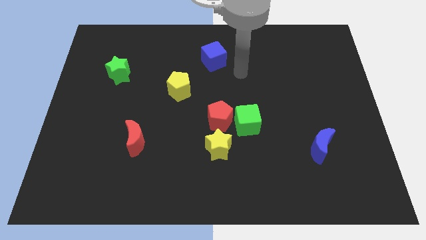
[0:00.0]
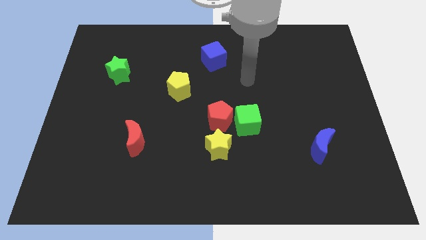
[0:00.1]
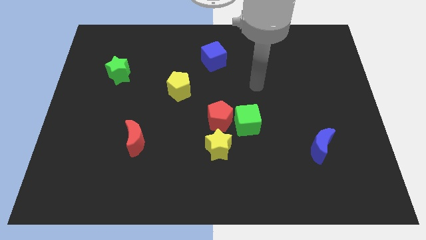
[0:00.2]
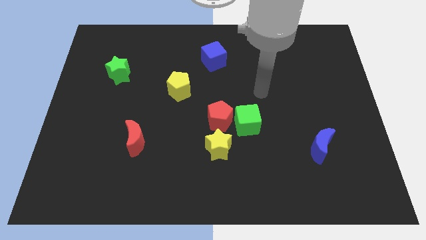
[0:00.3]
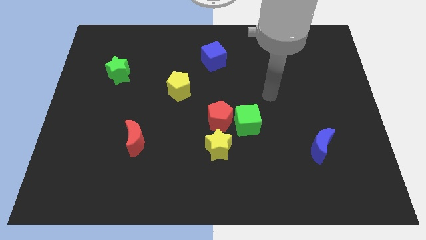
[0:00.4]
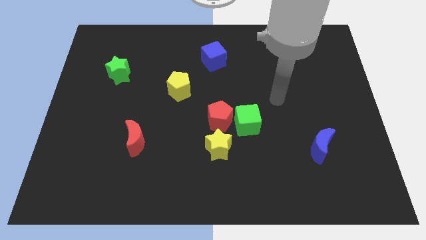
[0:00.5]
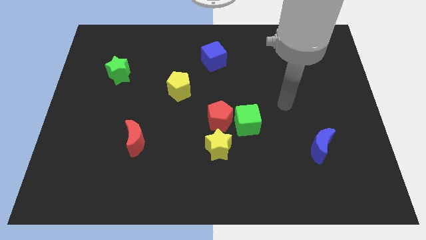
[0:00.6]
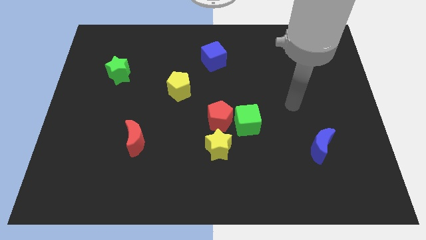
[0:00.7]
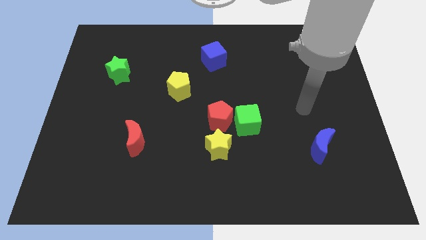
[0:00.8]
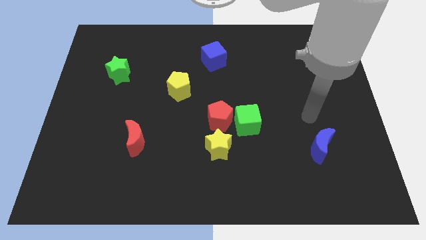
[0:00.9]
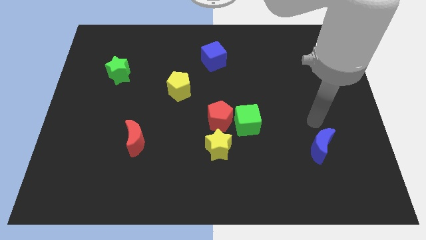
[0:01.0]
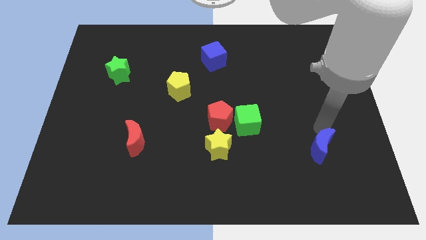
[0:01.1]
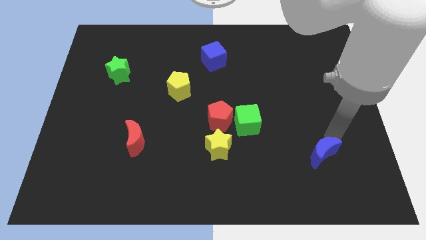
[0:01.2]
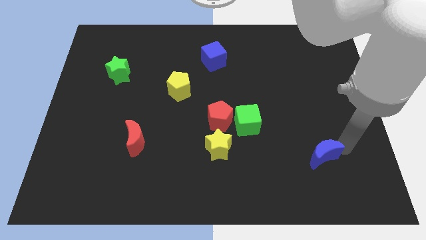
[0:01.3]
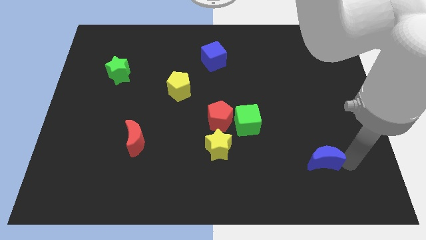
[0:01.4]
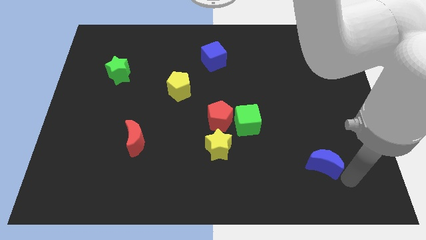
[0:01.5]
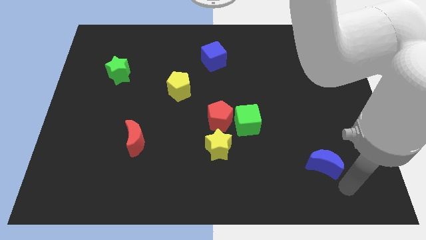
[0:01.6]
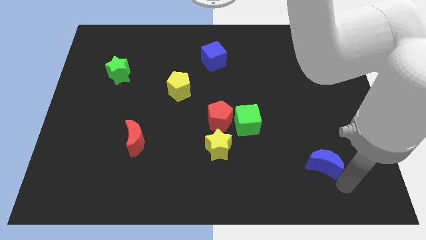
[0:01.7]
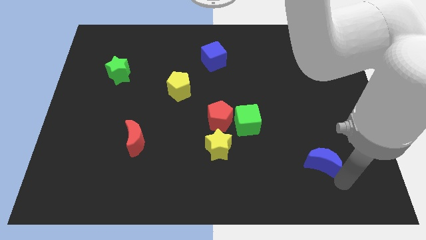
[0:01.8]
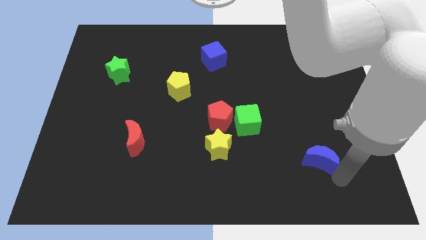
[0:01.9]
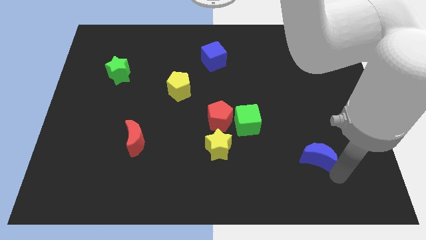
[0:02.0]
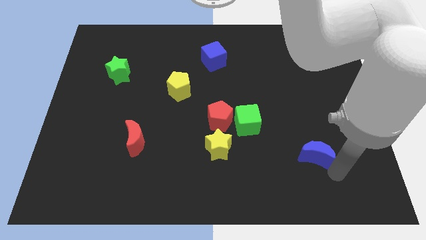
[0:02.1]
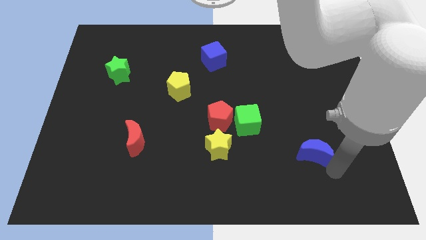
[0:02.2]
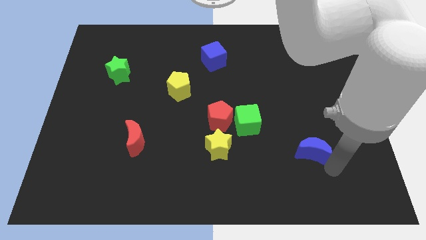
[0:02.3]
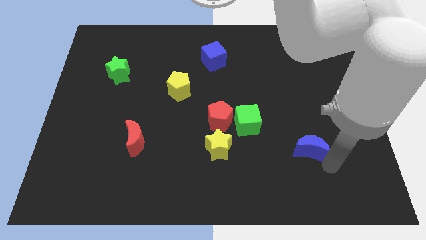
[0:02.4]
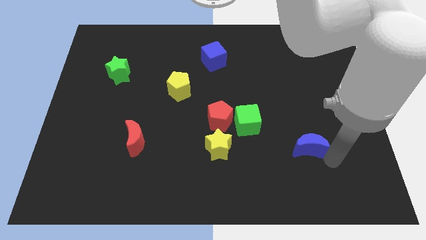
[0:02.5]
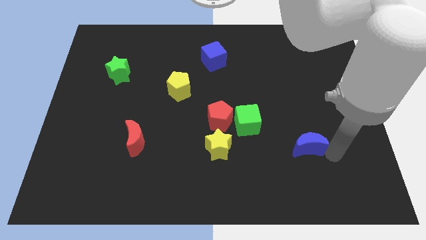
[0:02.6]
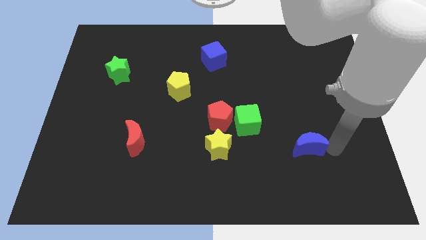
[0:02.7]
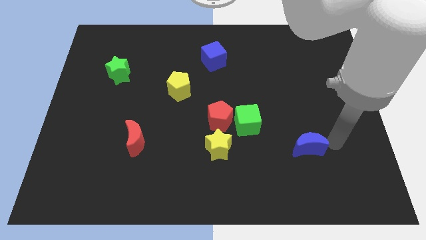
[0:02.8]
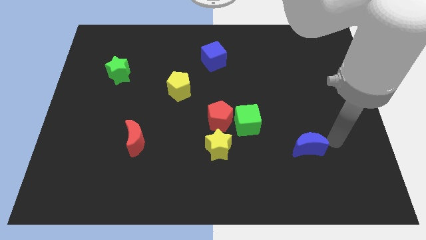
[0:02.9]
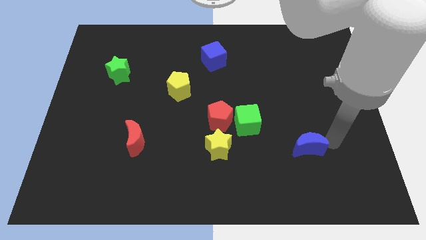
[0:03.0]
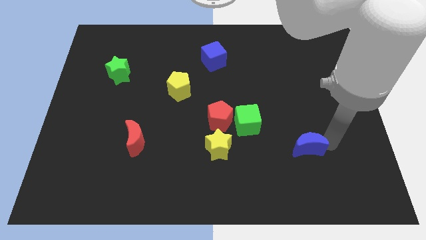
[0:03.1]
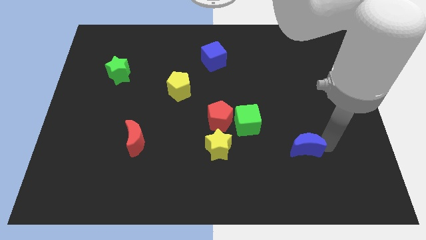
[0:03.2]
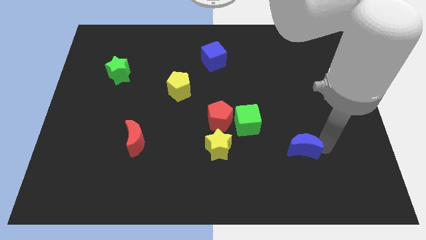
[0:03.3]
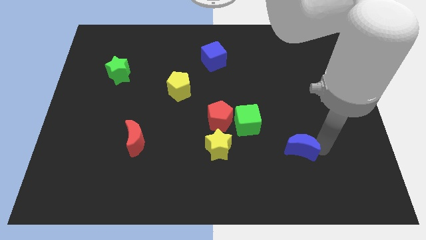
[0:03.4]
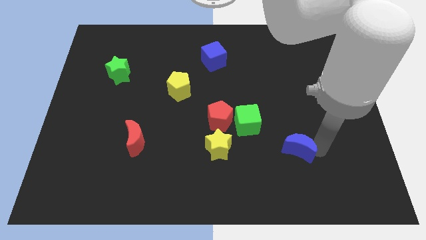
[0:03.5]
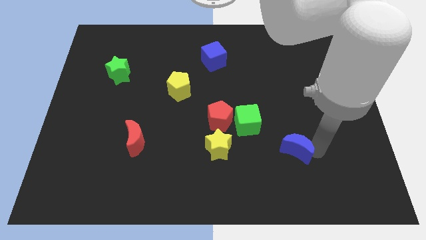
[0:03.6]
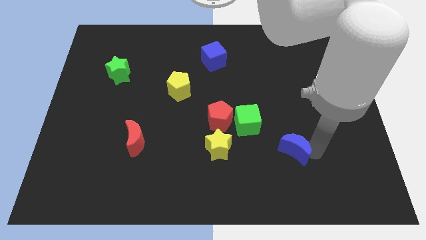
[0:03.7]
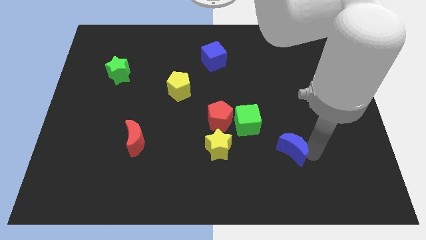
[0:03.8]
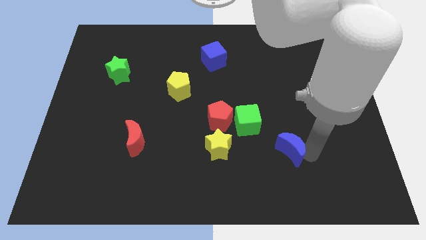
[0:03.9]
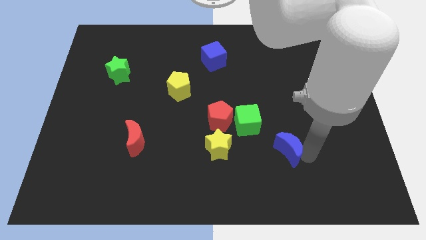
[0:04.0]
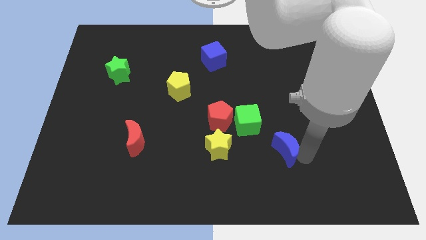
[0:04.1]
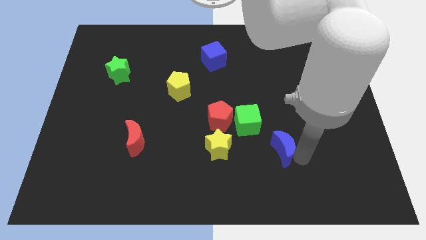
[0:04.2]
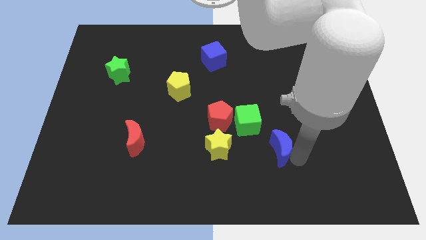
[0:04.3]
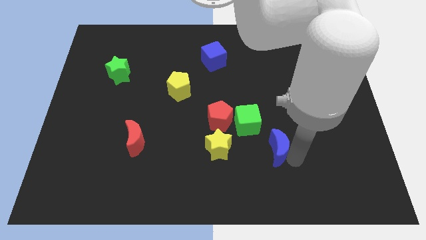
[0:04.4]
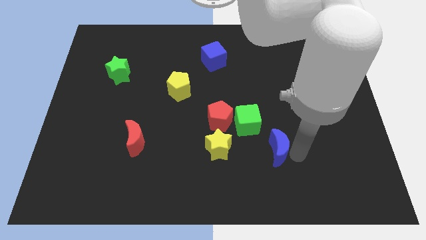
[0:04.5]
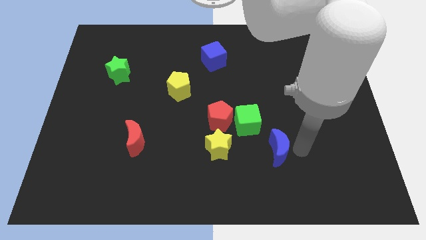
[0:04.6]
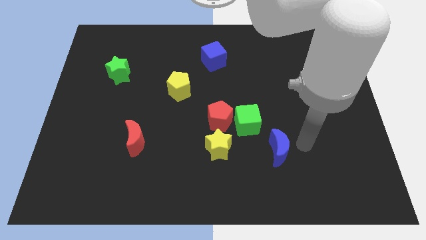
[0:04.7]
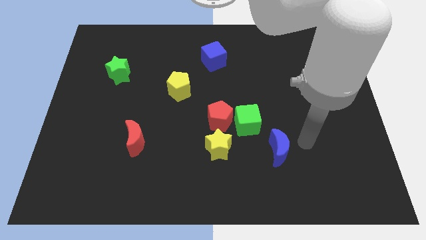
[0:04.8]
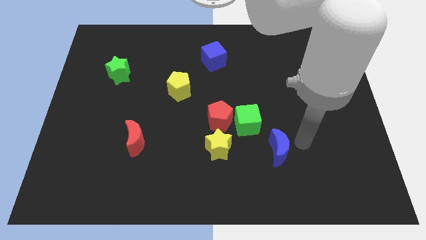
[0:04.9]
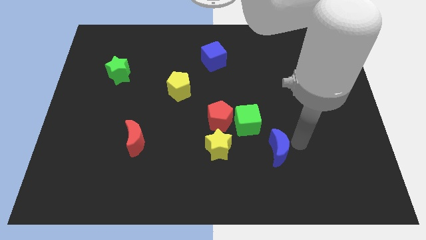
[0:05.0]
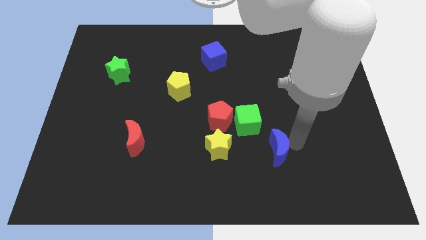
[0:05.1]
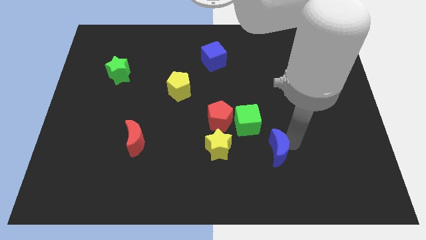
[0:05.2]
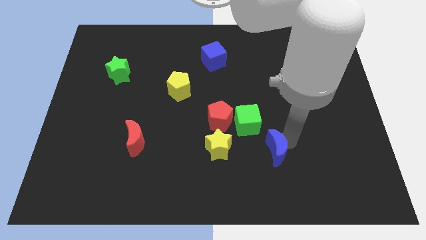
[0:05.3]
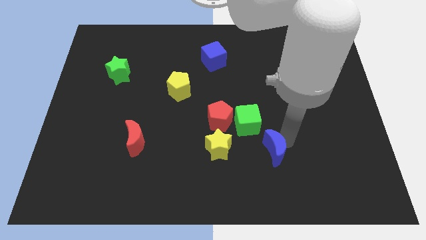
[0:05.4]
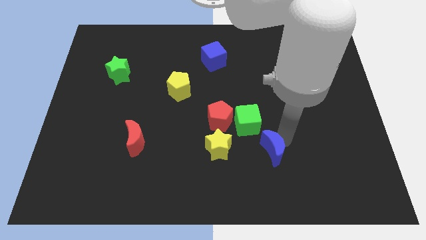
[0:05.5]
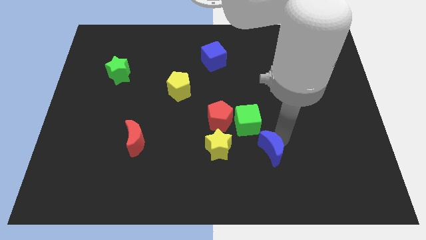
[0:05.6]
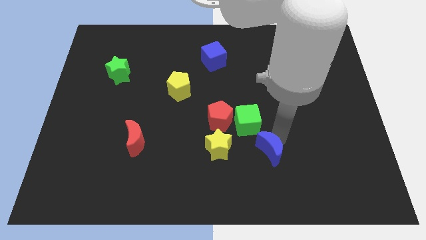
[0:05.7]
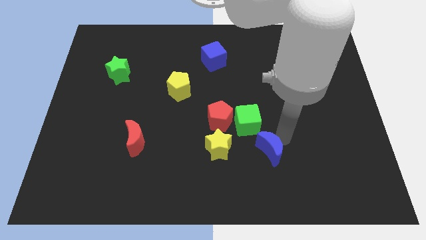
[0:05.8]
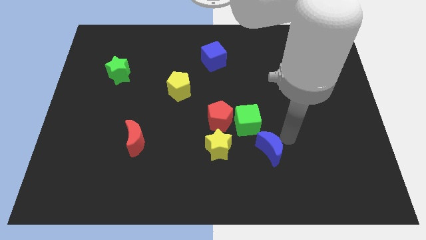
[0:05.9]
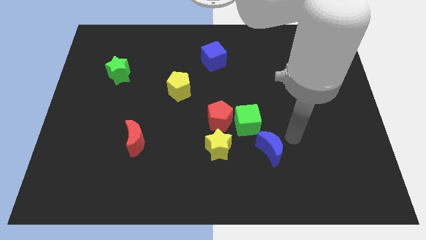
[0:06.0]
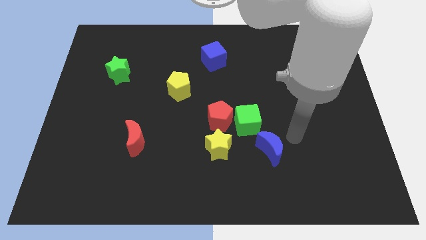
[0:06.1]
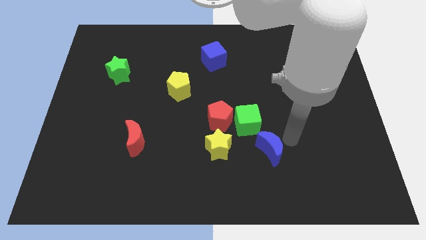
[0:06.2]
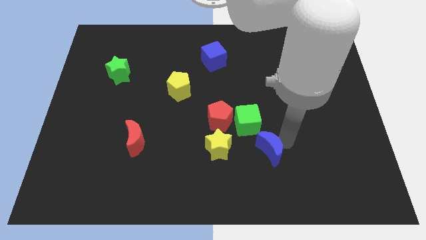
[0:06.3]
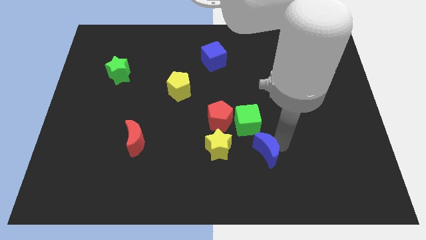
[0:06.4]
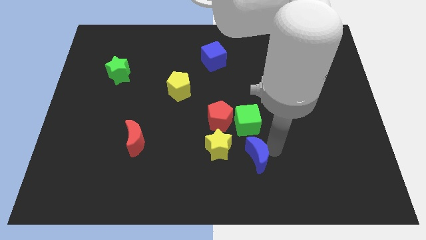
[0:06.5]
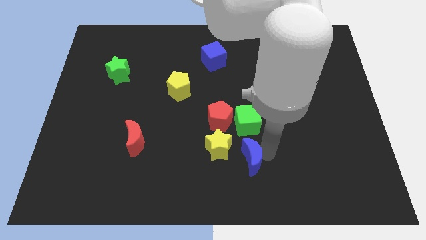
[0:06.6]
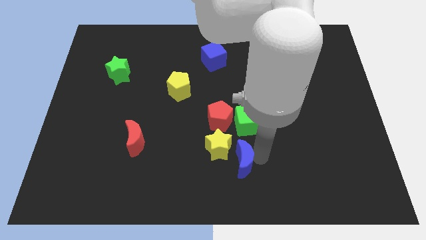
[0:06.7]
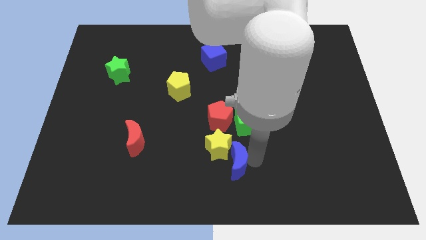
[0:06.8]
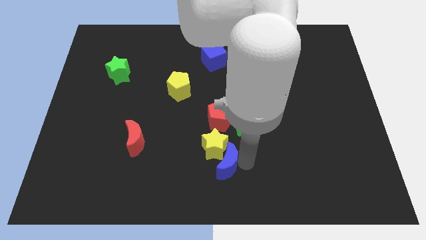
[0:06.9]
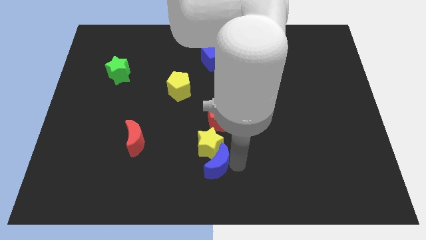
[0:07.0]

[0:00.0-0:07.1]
move the blue moon left

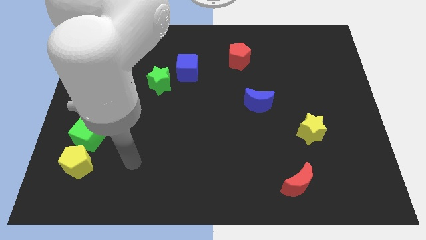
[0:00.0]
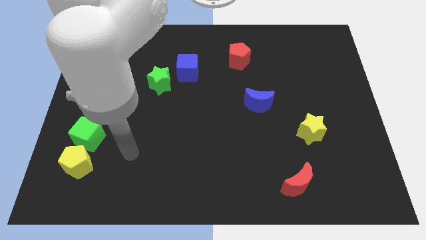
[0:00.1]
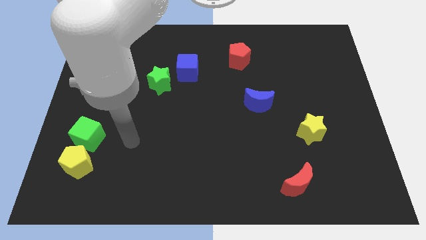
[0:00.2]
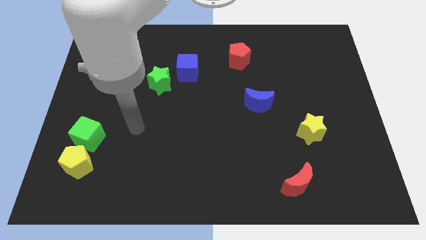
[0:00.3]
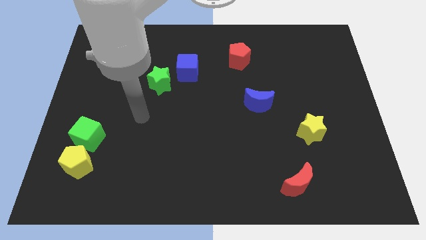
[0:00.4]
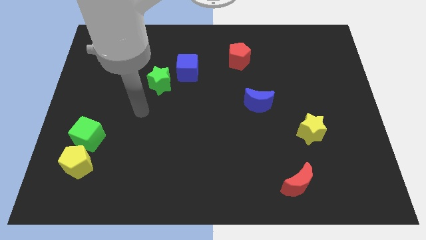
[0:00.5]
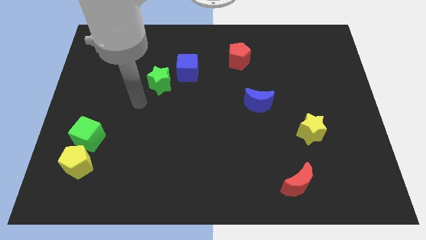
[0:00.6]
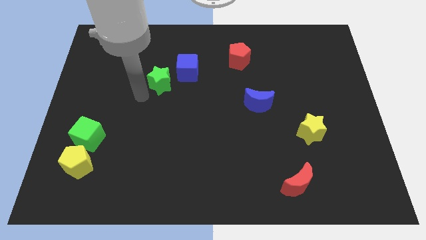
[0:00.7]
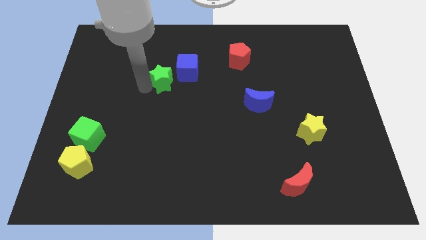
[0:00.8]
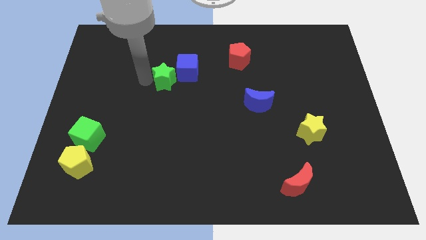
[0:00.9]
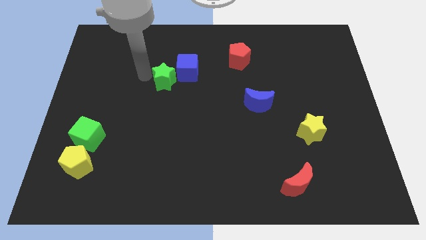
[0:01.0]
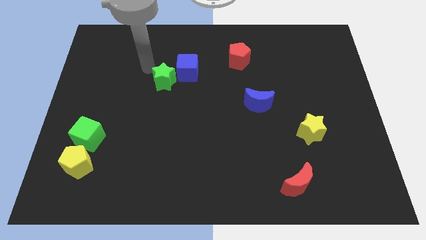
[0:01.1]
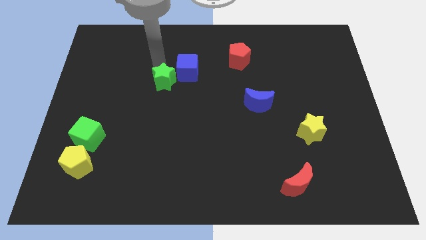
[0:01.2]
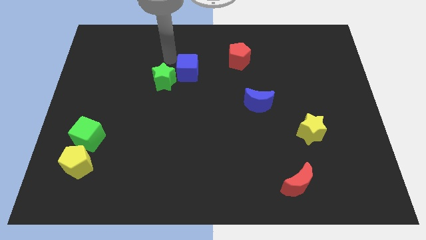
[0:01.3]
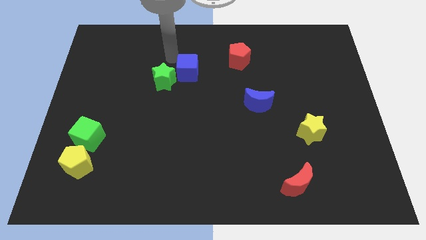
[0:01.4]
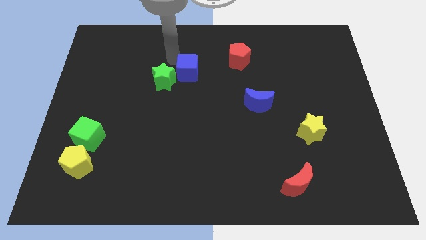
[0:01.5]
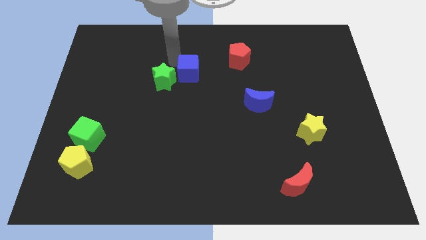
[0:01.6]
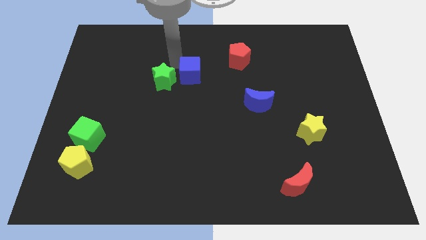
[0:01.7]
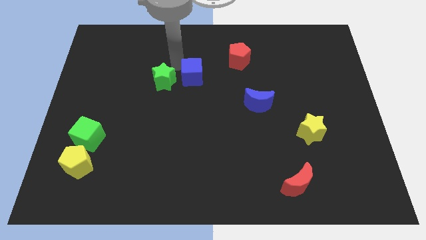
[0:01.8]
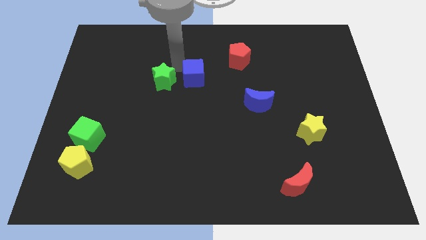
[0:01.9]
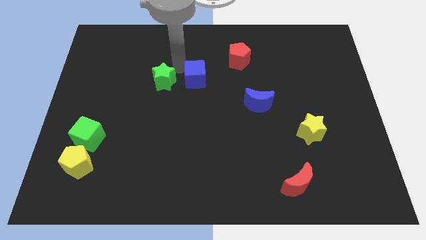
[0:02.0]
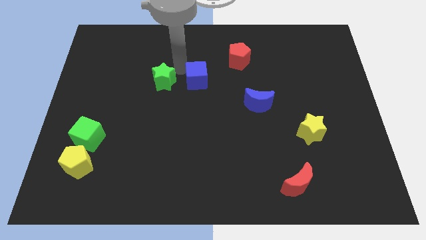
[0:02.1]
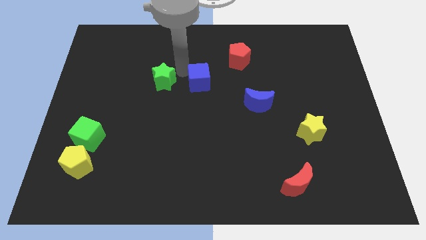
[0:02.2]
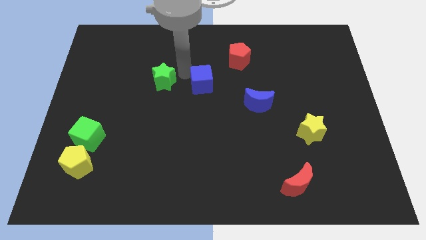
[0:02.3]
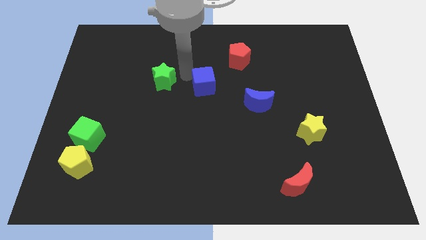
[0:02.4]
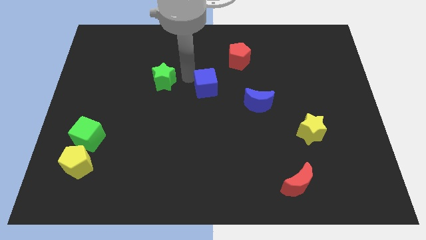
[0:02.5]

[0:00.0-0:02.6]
slightly push the blue cube down and to the right diagonally
